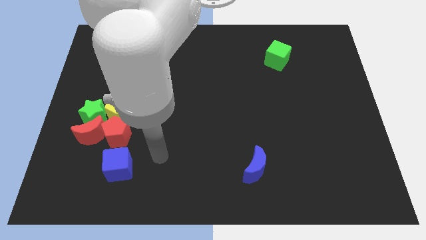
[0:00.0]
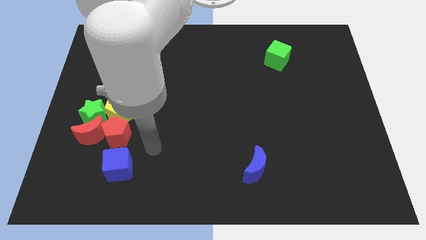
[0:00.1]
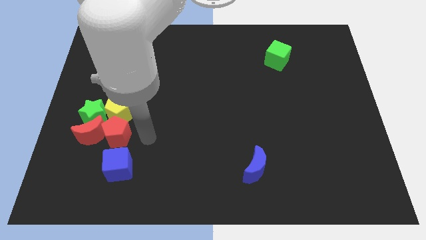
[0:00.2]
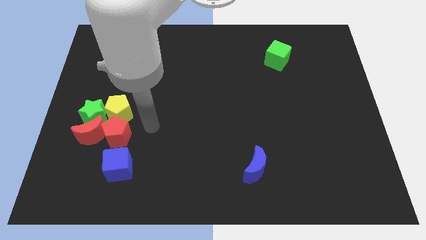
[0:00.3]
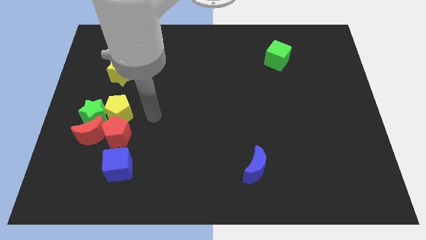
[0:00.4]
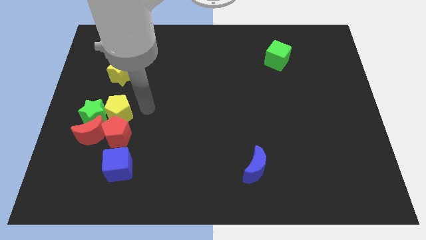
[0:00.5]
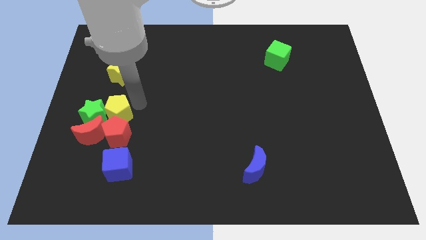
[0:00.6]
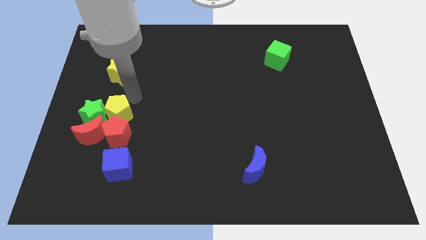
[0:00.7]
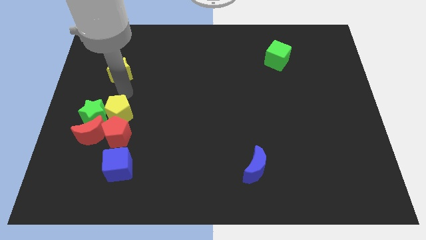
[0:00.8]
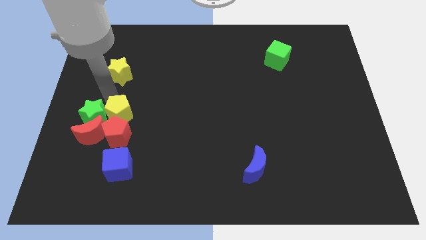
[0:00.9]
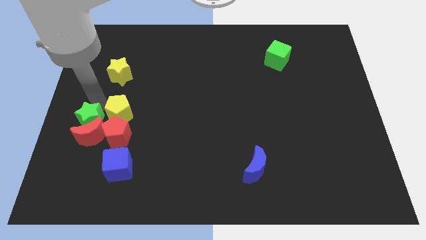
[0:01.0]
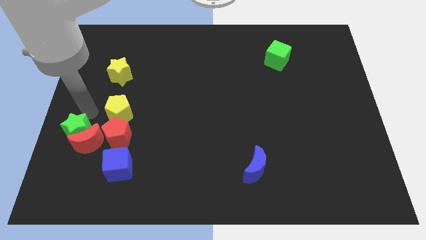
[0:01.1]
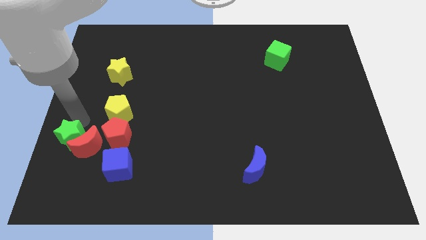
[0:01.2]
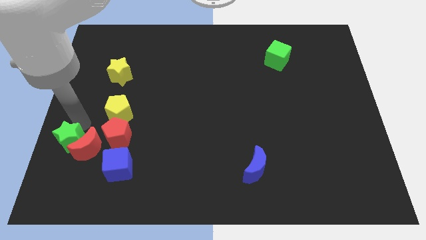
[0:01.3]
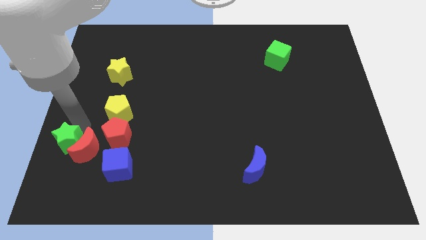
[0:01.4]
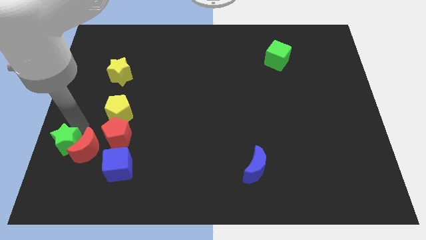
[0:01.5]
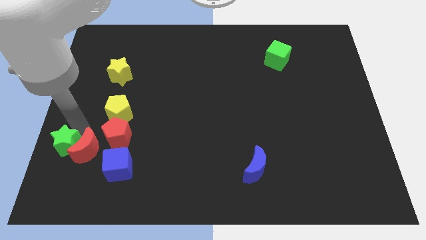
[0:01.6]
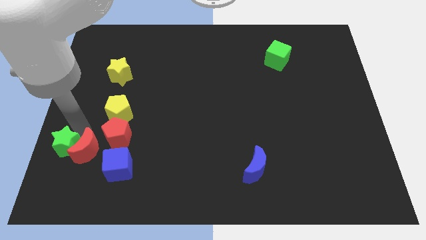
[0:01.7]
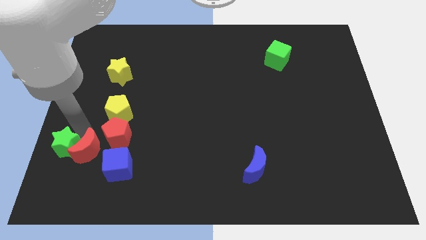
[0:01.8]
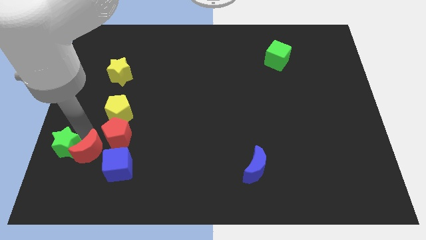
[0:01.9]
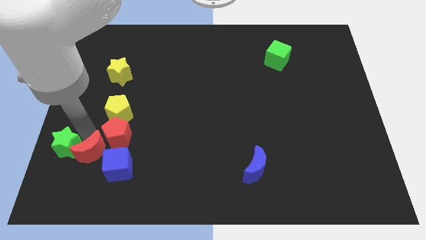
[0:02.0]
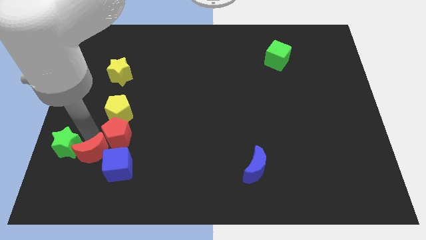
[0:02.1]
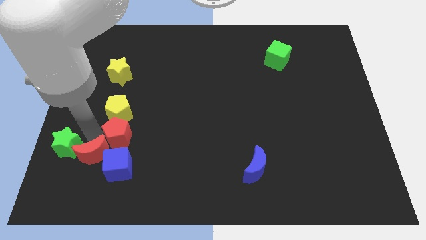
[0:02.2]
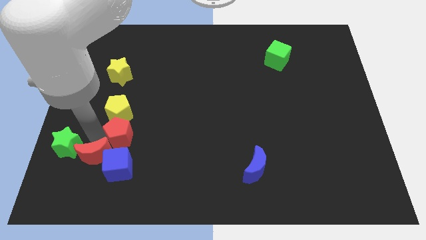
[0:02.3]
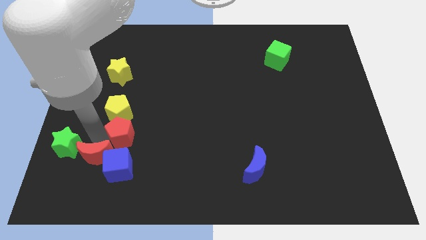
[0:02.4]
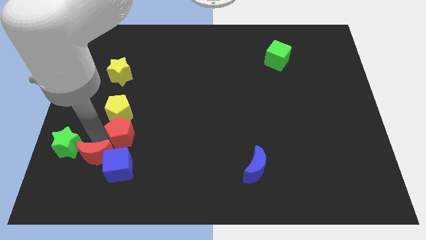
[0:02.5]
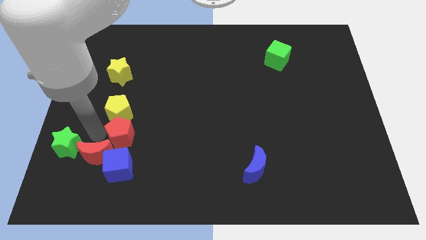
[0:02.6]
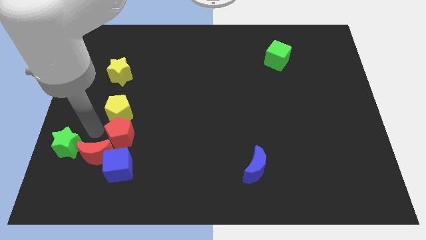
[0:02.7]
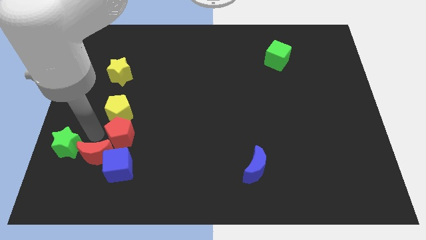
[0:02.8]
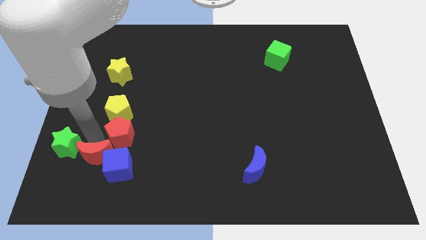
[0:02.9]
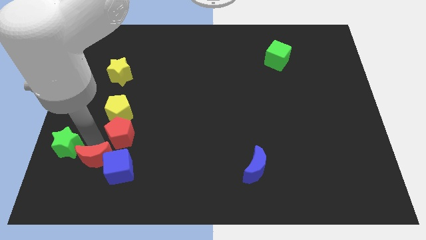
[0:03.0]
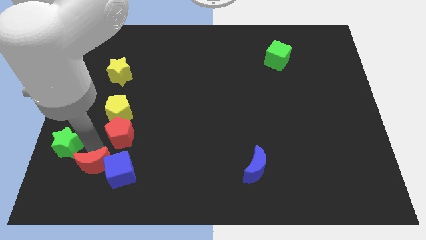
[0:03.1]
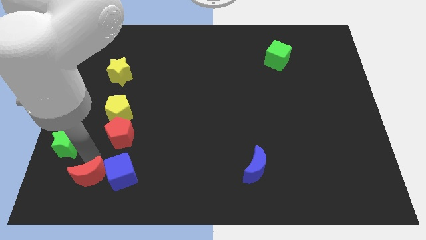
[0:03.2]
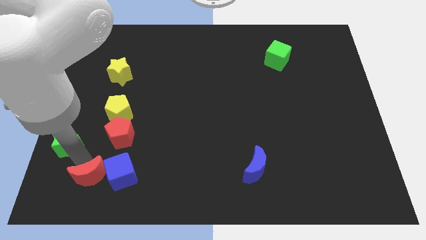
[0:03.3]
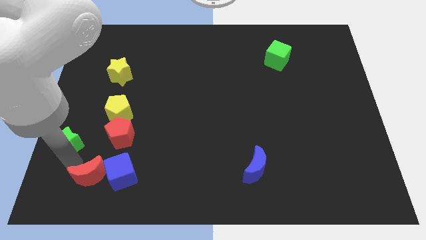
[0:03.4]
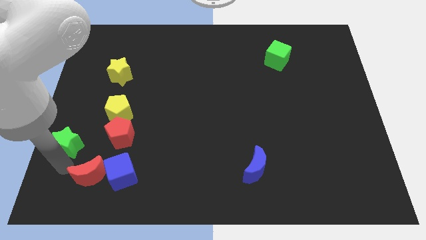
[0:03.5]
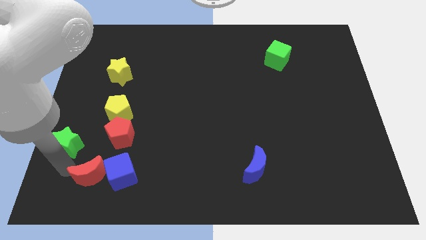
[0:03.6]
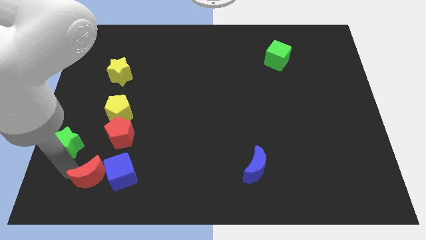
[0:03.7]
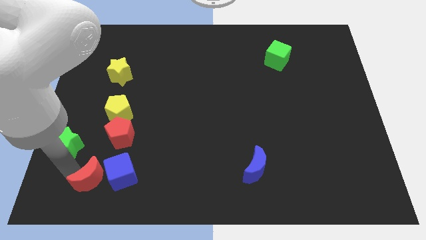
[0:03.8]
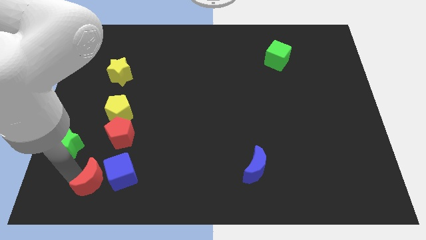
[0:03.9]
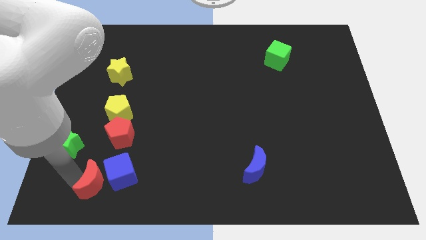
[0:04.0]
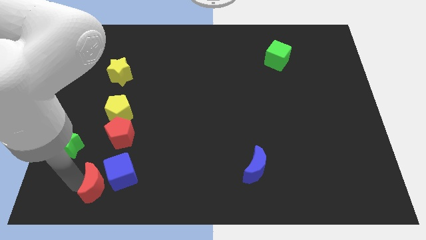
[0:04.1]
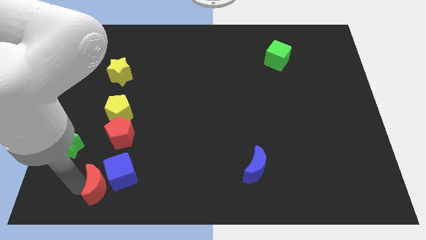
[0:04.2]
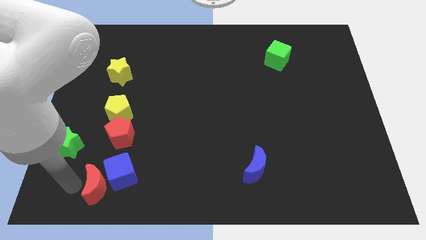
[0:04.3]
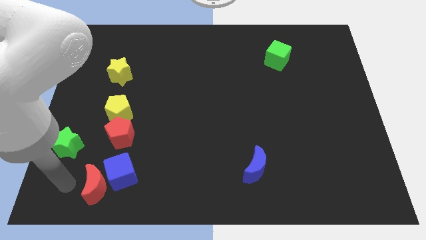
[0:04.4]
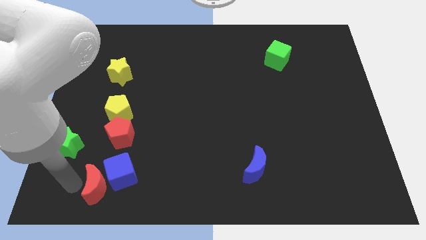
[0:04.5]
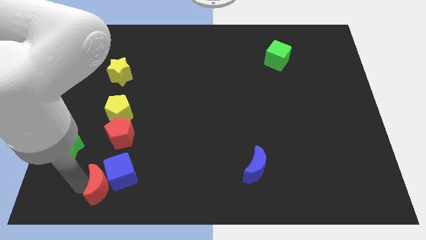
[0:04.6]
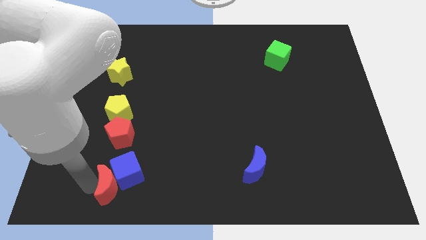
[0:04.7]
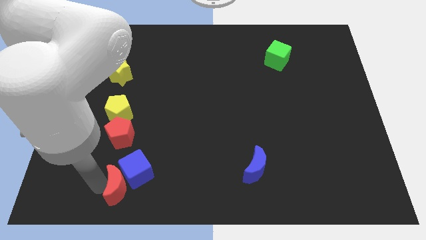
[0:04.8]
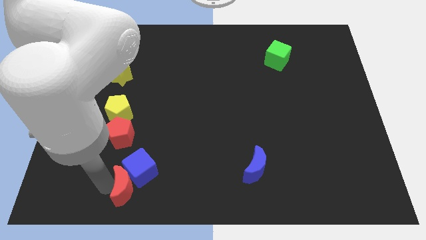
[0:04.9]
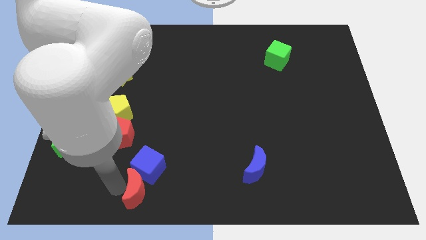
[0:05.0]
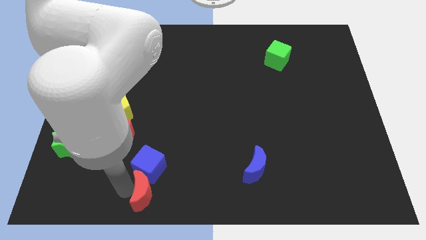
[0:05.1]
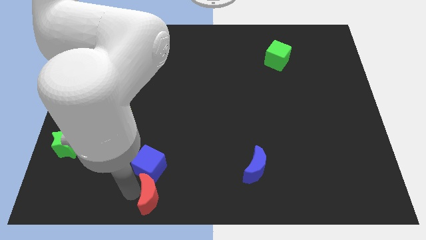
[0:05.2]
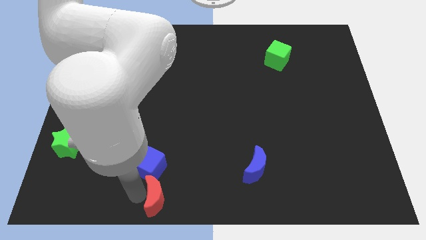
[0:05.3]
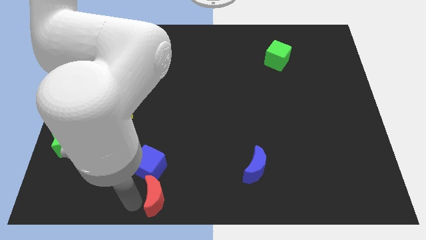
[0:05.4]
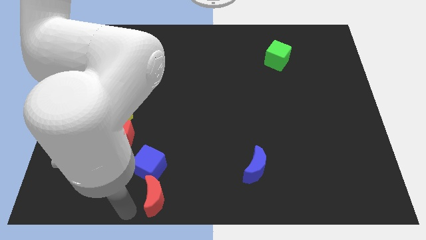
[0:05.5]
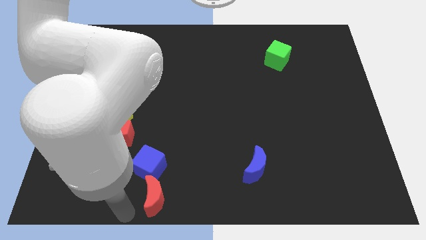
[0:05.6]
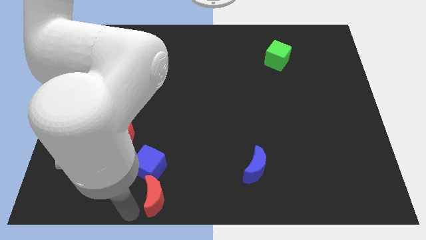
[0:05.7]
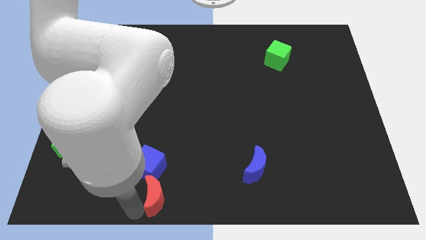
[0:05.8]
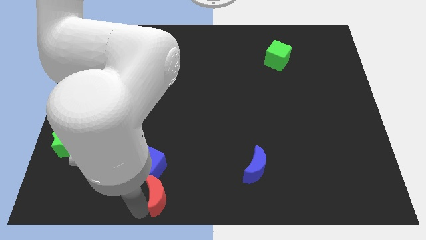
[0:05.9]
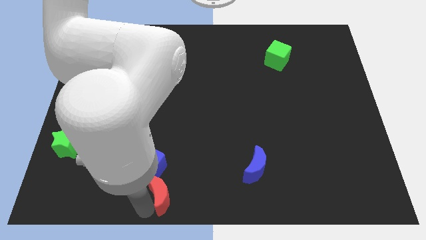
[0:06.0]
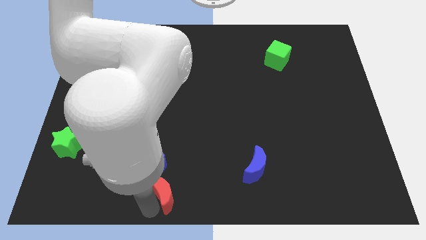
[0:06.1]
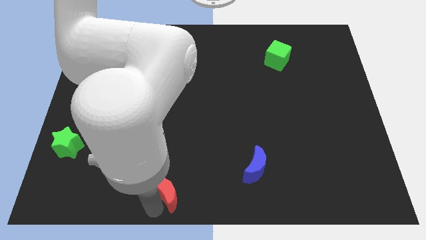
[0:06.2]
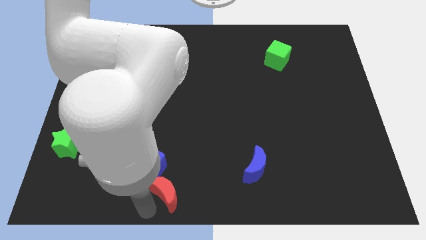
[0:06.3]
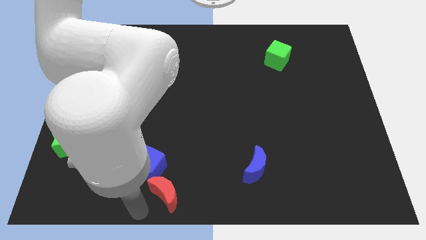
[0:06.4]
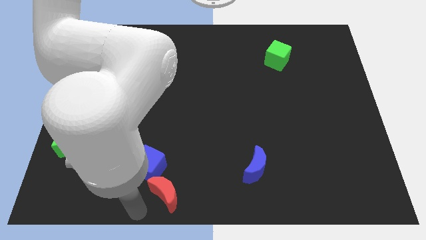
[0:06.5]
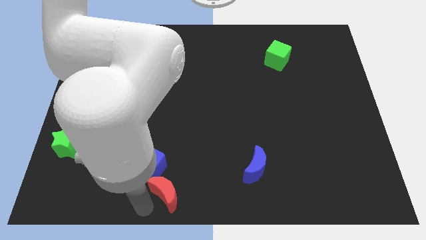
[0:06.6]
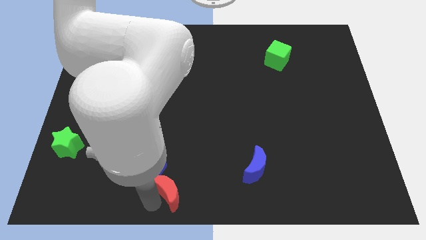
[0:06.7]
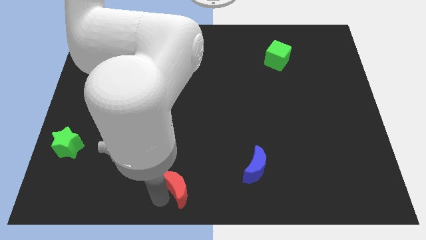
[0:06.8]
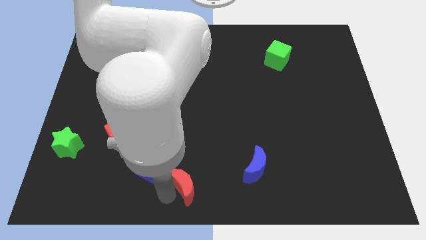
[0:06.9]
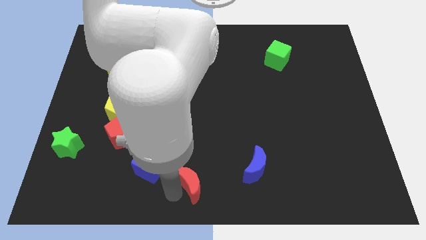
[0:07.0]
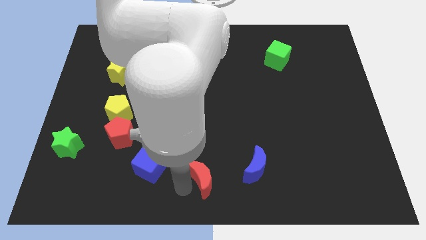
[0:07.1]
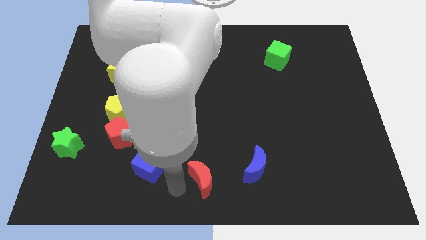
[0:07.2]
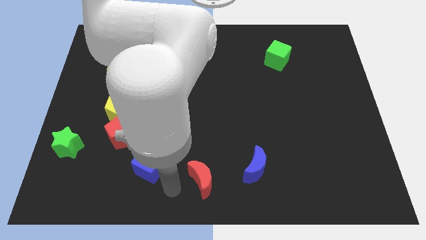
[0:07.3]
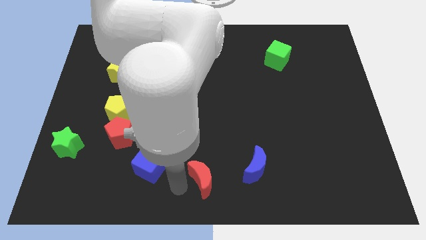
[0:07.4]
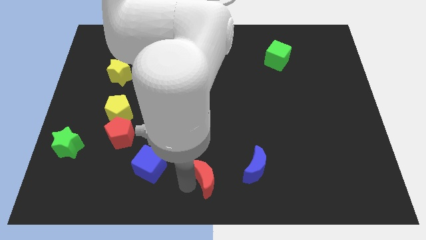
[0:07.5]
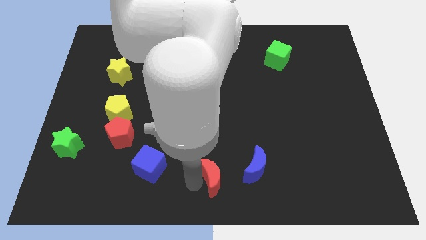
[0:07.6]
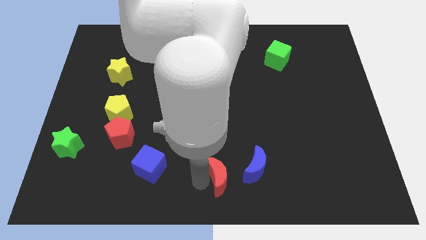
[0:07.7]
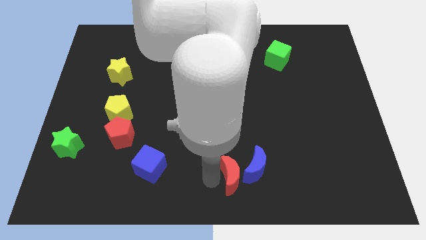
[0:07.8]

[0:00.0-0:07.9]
put the red moon close to the blue moon
